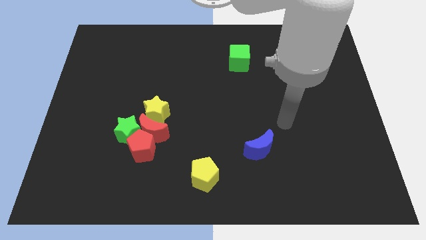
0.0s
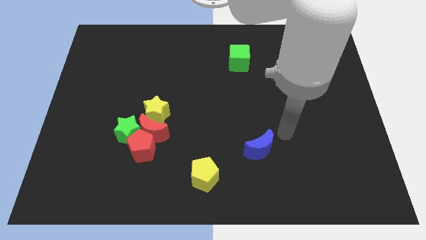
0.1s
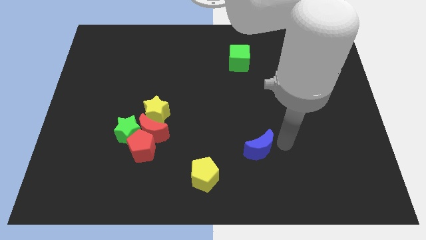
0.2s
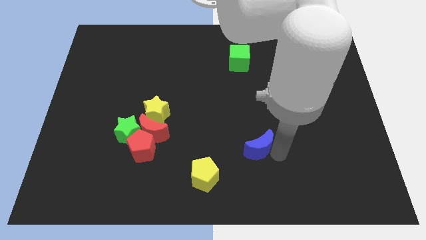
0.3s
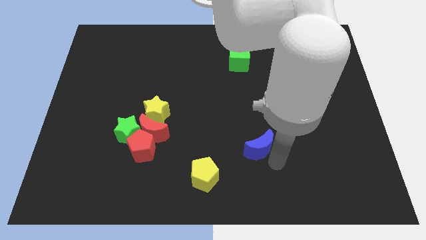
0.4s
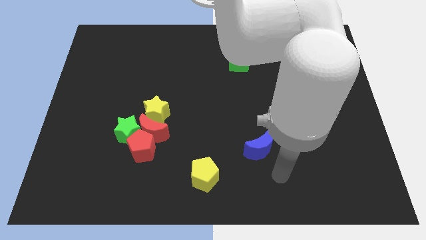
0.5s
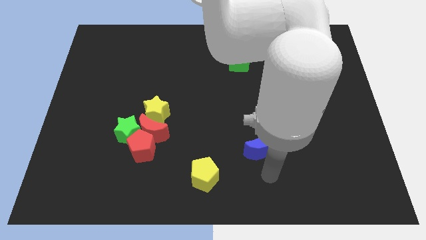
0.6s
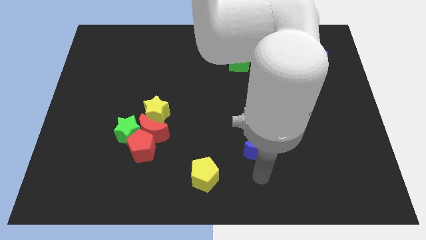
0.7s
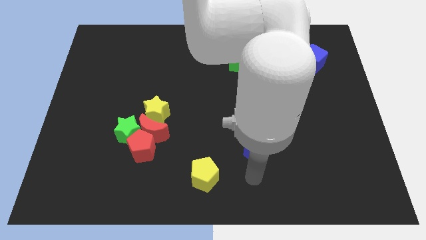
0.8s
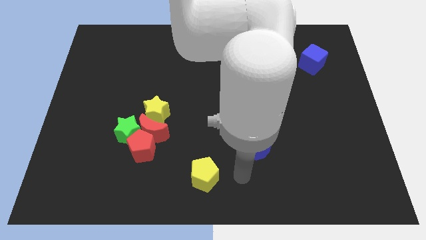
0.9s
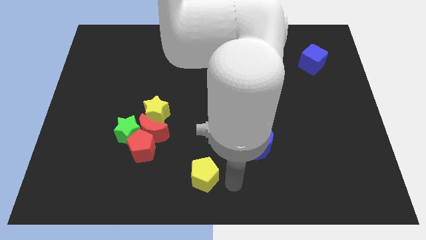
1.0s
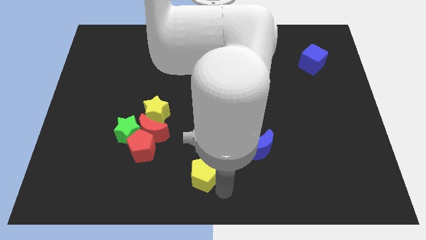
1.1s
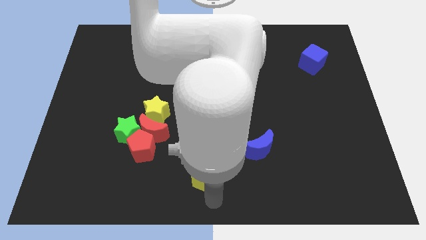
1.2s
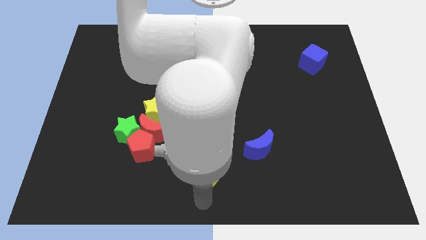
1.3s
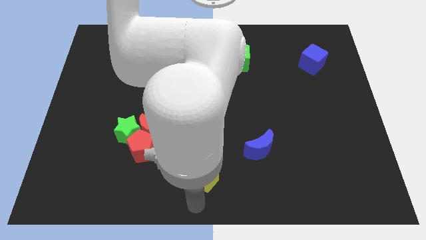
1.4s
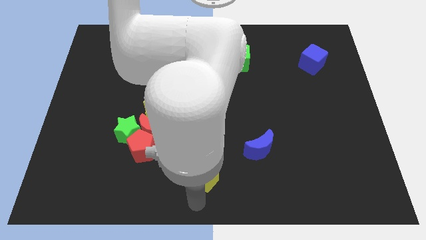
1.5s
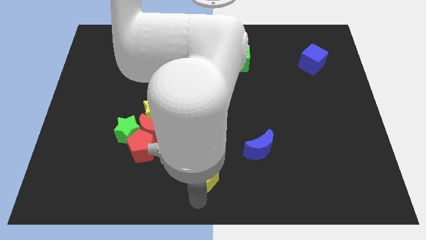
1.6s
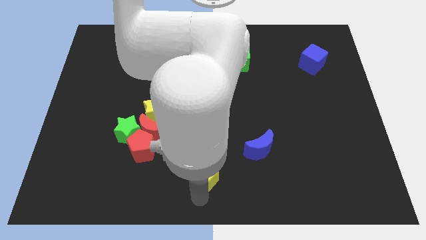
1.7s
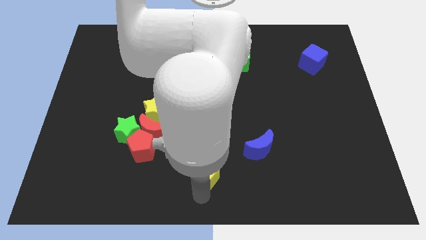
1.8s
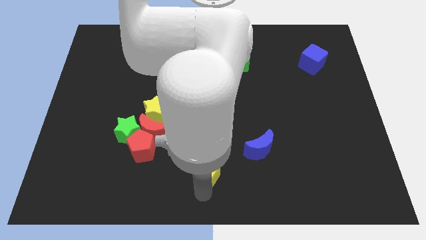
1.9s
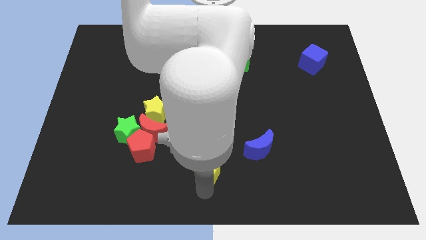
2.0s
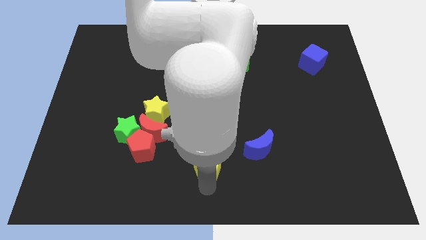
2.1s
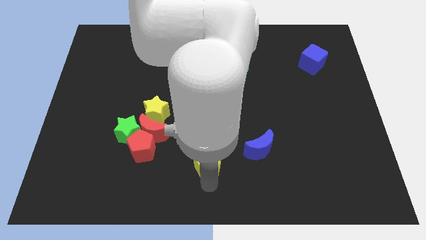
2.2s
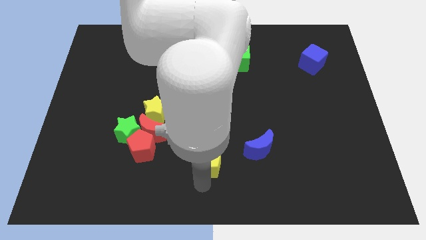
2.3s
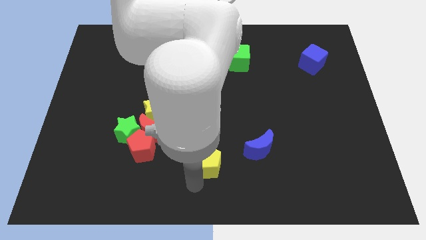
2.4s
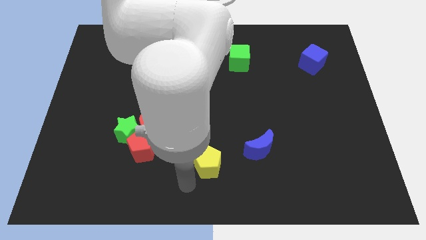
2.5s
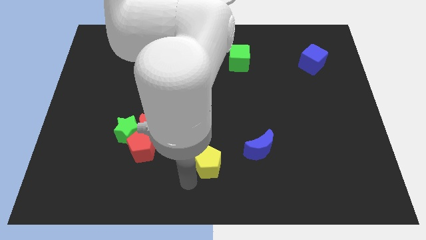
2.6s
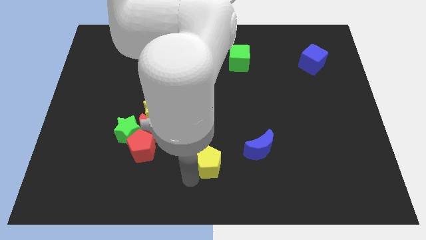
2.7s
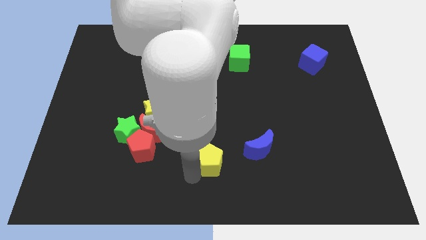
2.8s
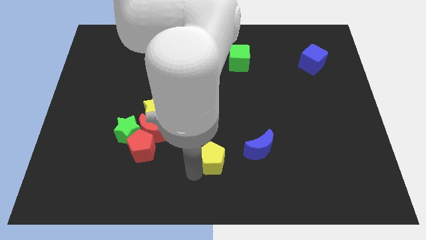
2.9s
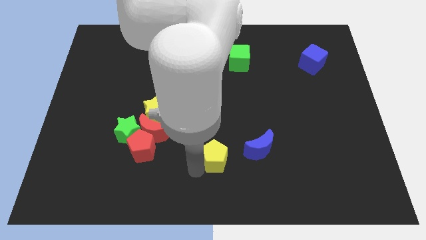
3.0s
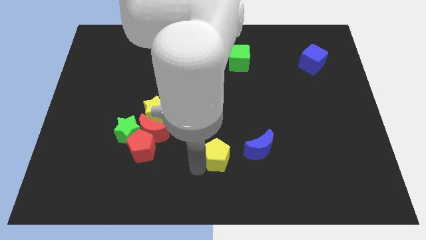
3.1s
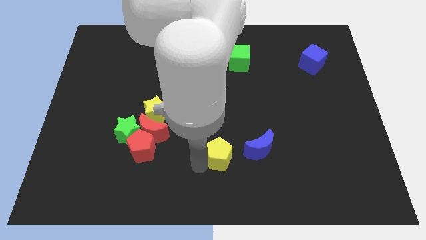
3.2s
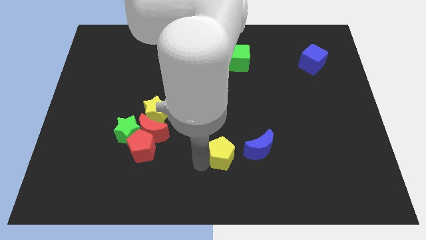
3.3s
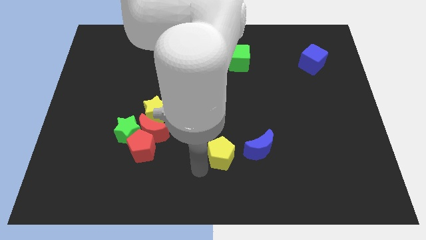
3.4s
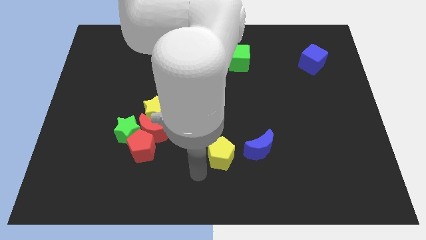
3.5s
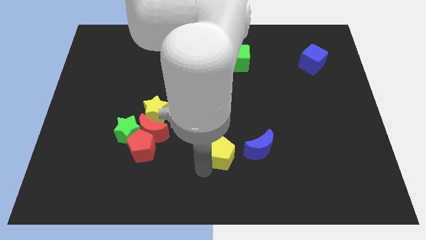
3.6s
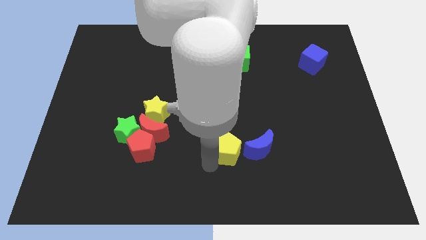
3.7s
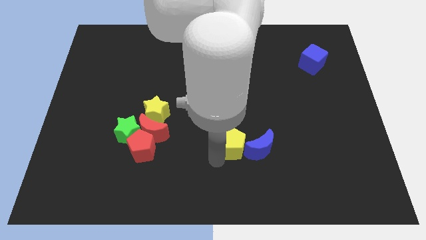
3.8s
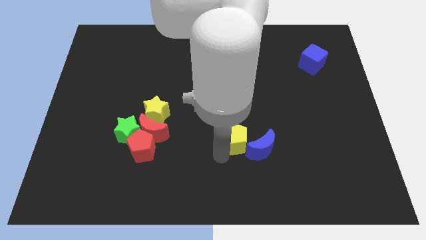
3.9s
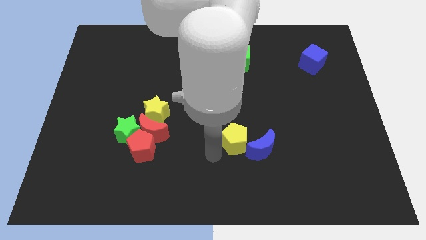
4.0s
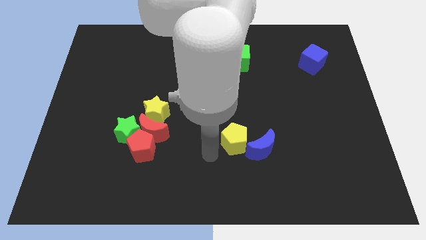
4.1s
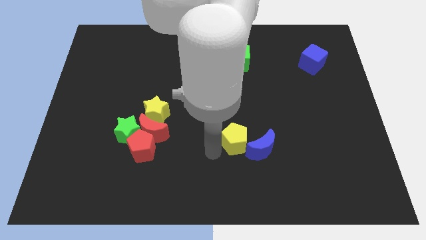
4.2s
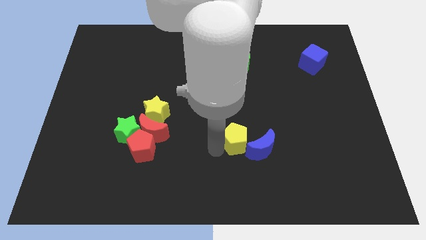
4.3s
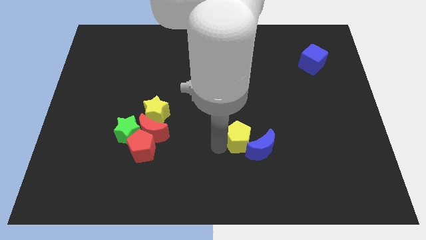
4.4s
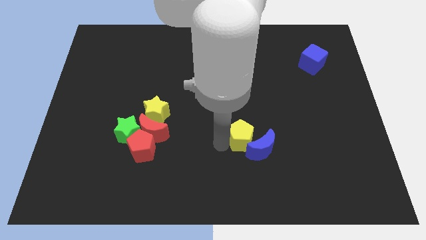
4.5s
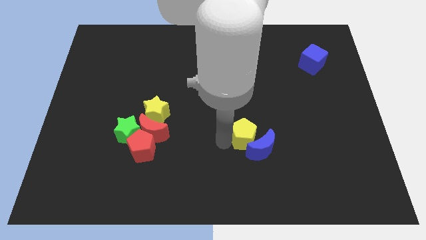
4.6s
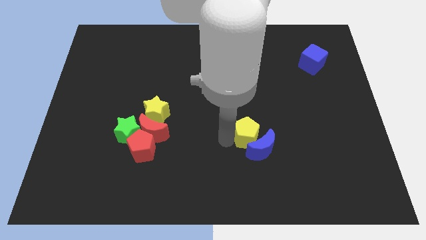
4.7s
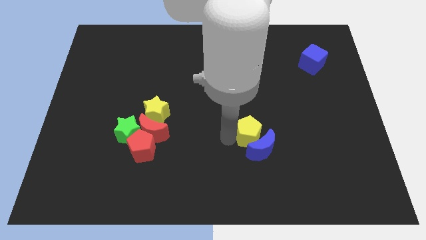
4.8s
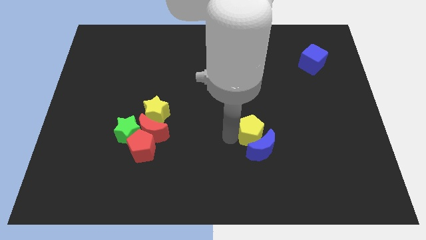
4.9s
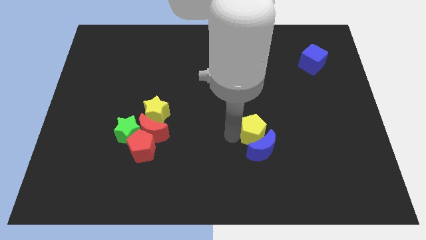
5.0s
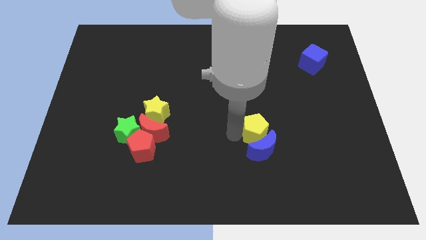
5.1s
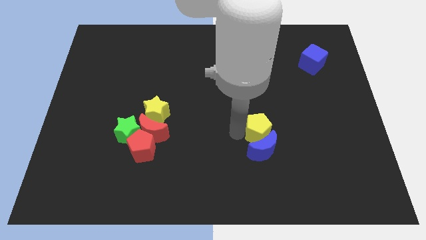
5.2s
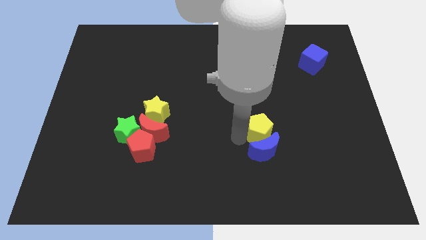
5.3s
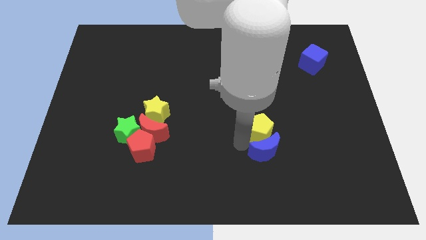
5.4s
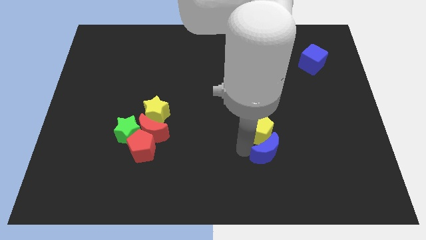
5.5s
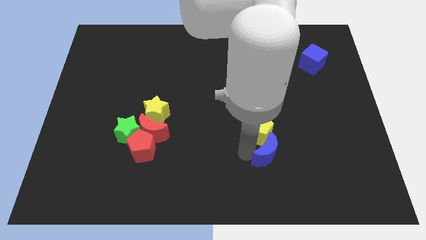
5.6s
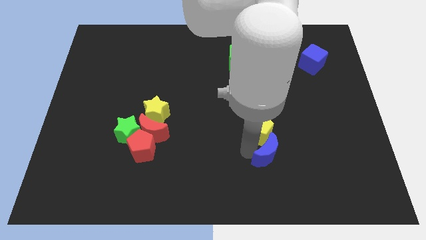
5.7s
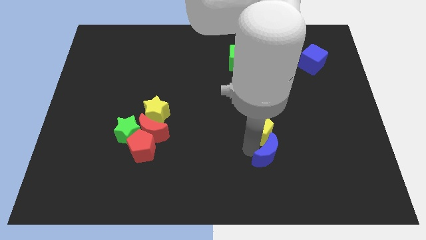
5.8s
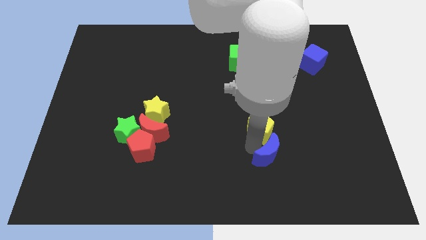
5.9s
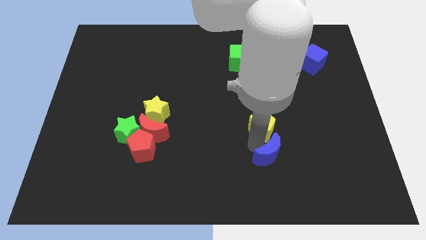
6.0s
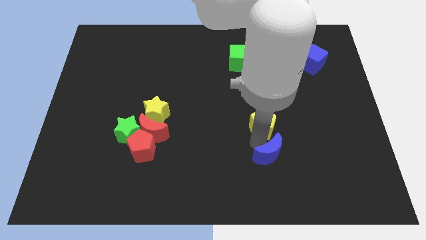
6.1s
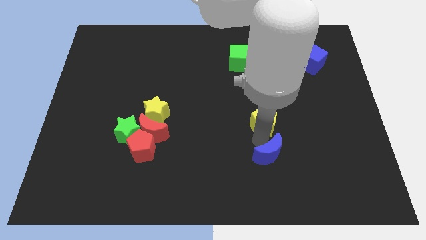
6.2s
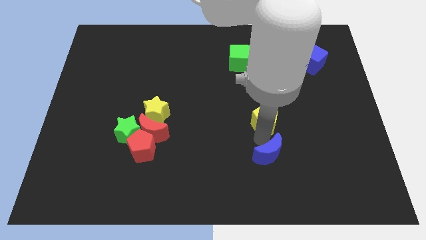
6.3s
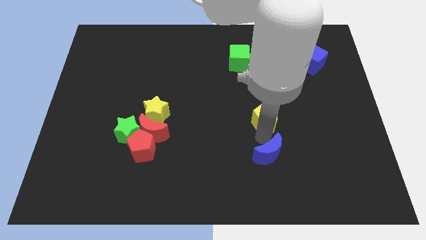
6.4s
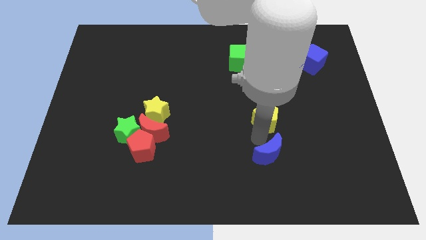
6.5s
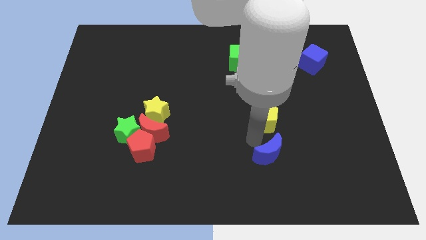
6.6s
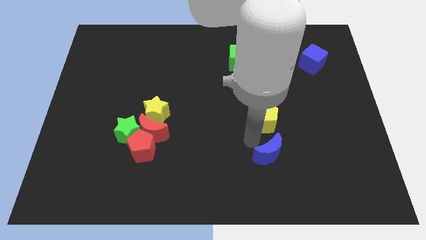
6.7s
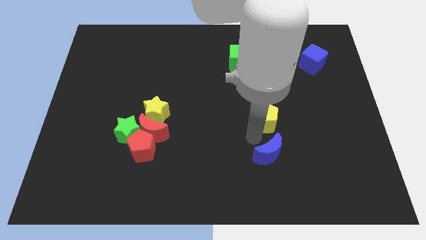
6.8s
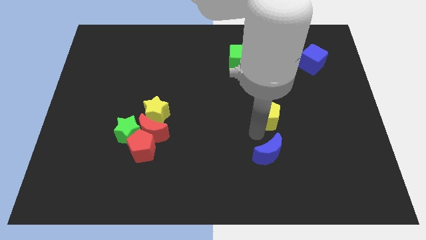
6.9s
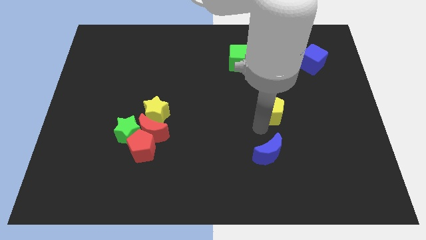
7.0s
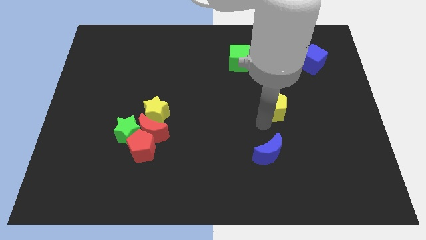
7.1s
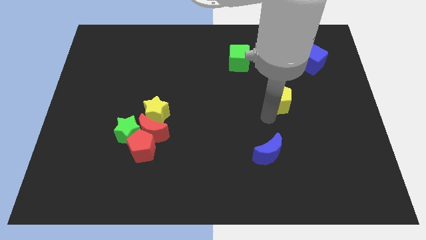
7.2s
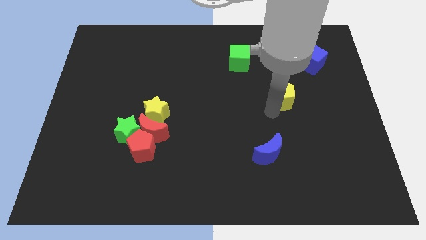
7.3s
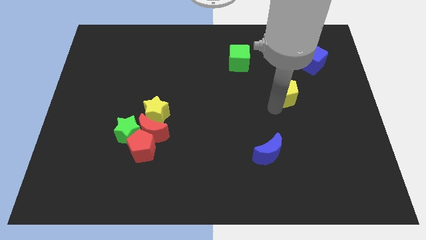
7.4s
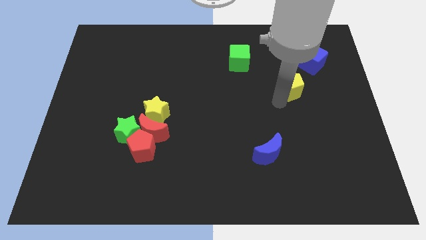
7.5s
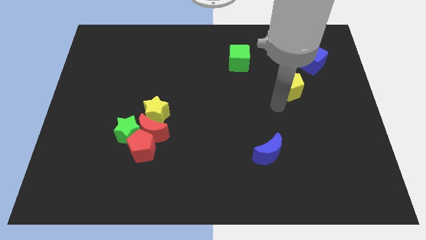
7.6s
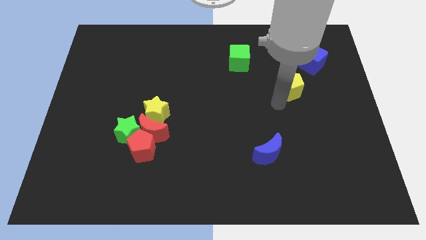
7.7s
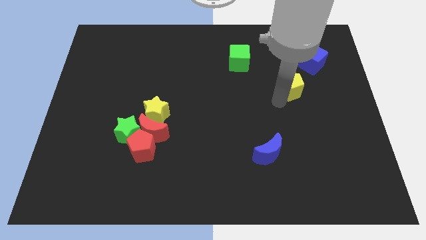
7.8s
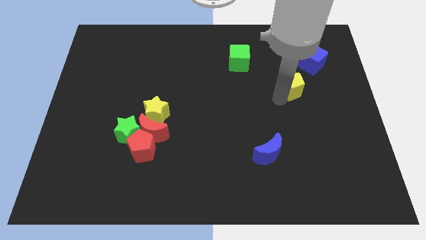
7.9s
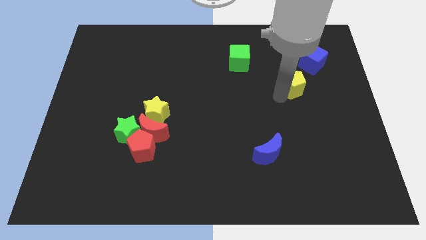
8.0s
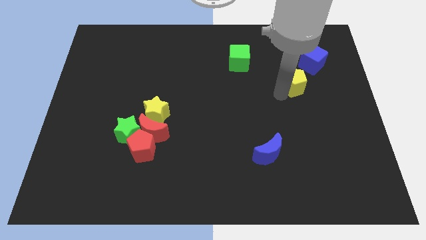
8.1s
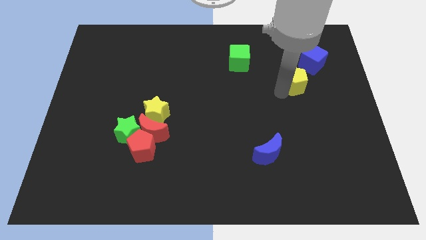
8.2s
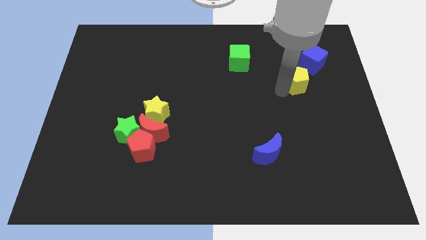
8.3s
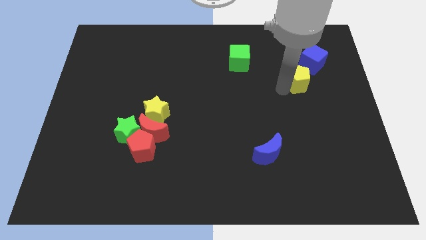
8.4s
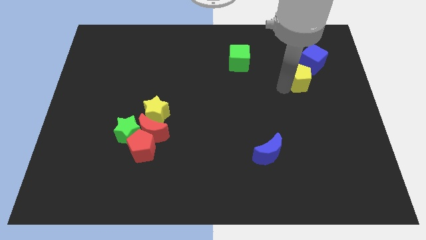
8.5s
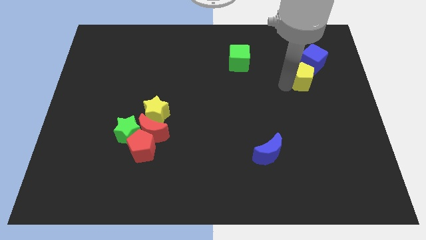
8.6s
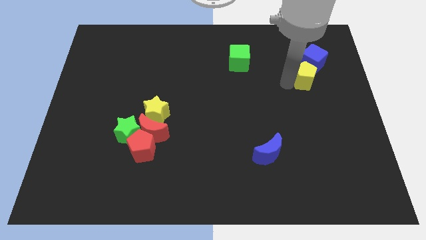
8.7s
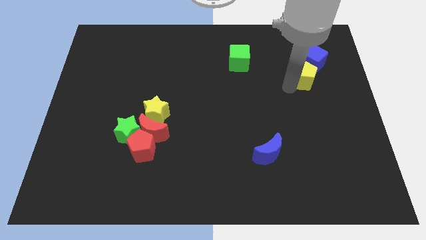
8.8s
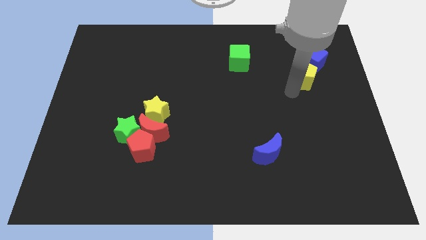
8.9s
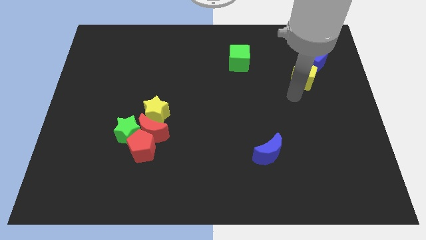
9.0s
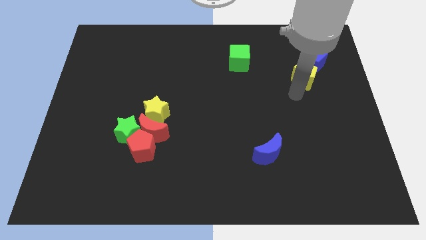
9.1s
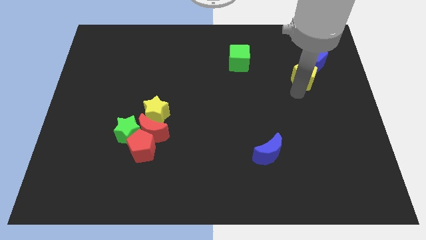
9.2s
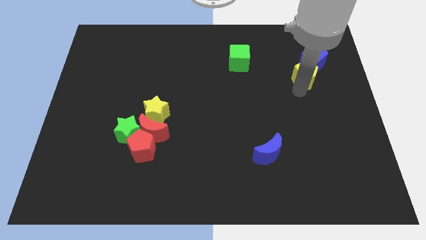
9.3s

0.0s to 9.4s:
push the yellow pentagon towards the blue cube
